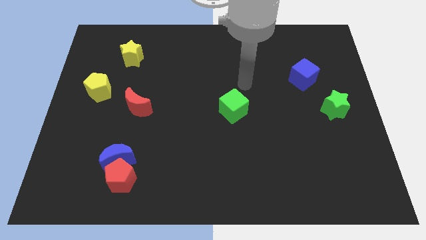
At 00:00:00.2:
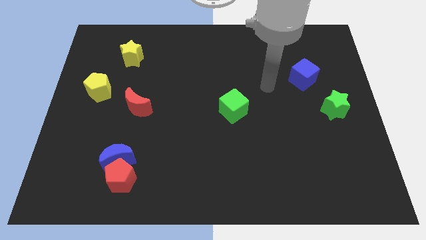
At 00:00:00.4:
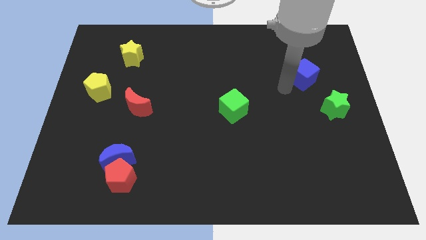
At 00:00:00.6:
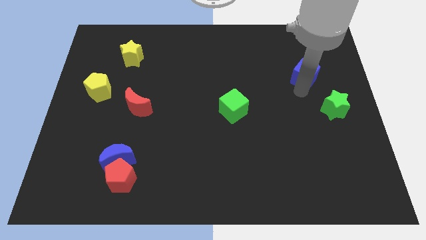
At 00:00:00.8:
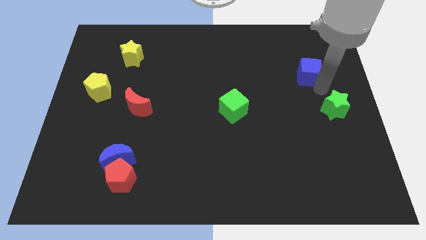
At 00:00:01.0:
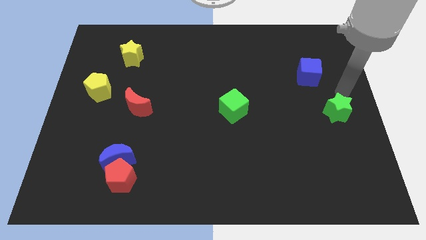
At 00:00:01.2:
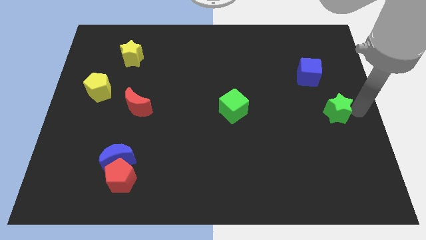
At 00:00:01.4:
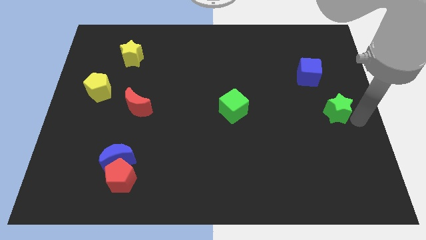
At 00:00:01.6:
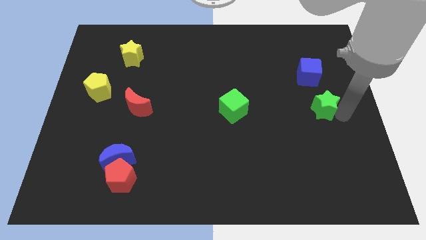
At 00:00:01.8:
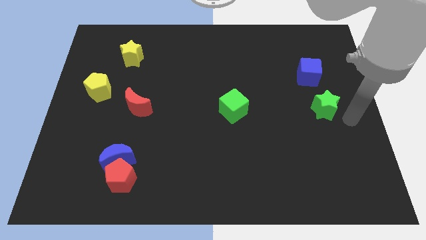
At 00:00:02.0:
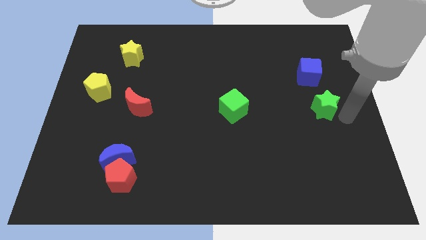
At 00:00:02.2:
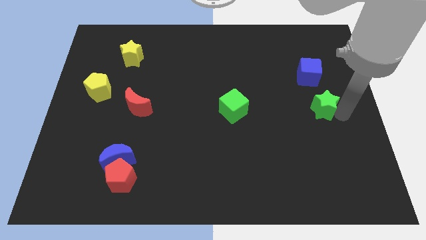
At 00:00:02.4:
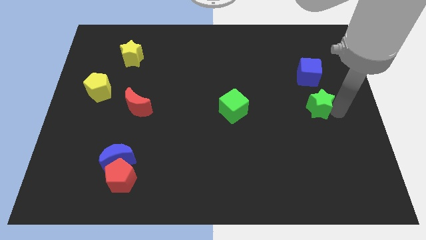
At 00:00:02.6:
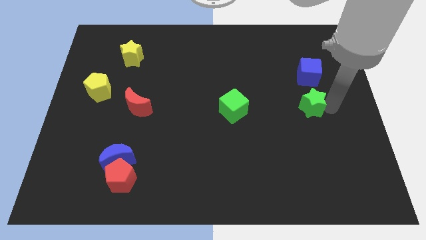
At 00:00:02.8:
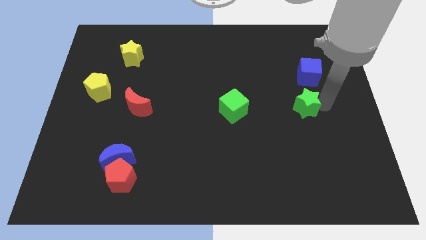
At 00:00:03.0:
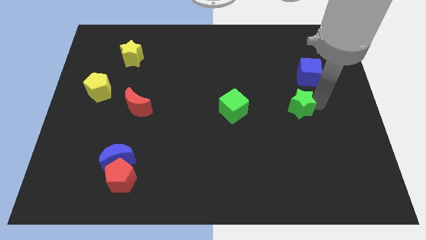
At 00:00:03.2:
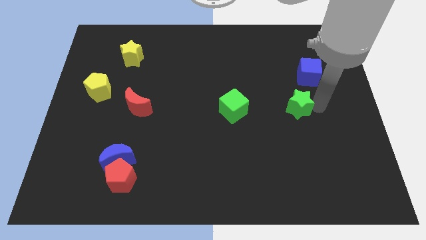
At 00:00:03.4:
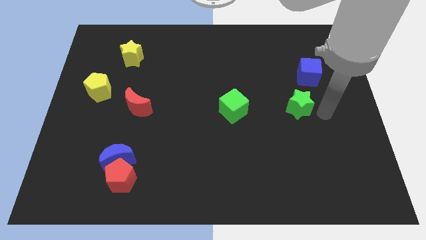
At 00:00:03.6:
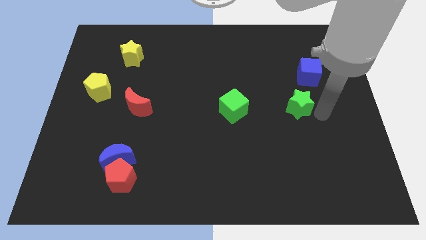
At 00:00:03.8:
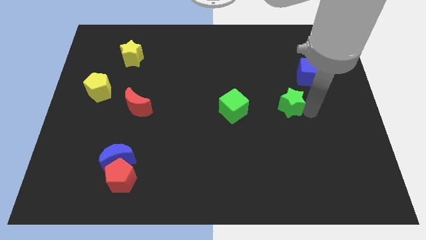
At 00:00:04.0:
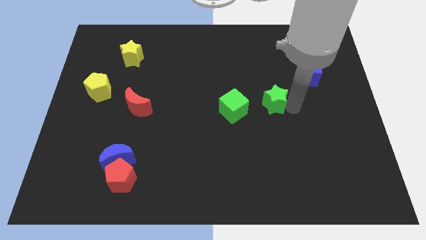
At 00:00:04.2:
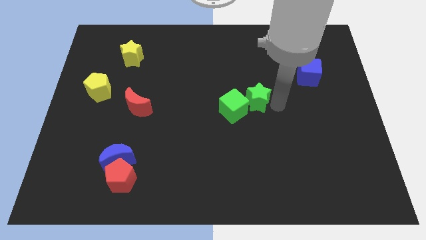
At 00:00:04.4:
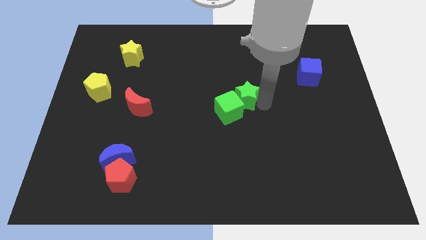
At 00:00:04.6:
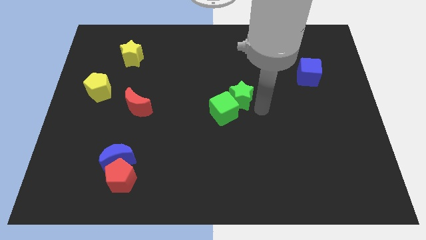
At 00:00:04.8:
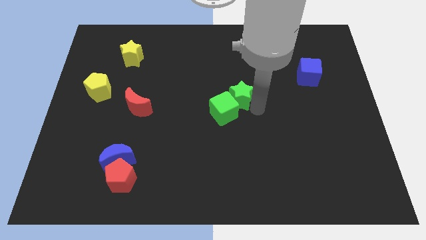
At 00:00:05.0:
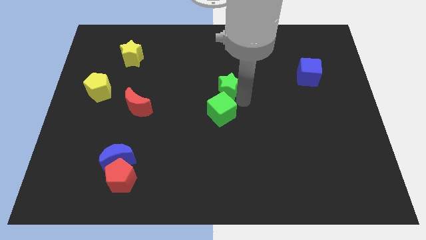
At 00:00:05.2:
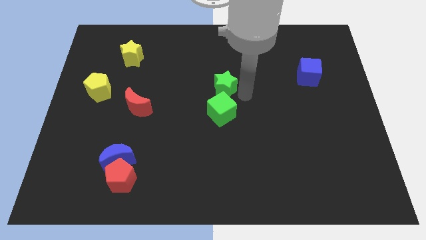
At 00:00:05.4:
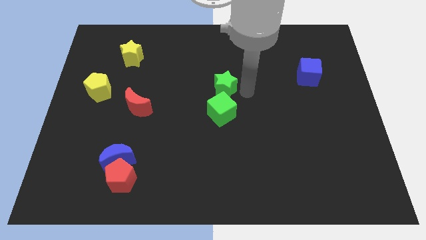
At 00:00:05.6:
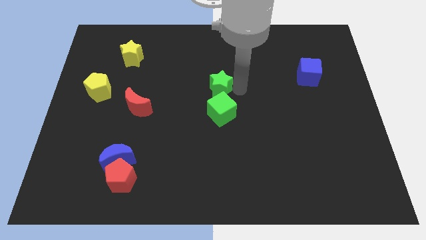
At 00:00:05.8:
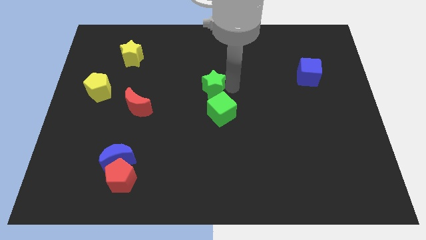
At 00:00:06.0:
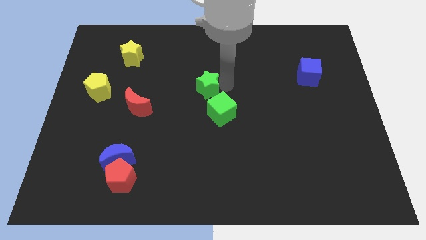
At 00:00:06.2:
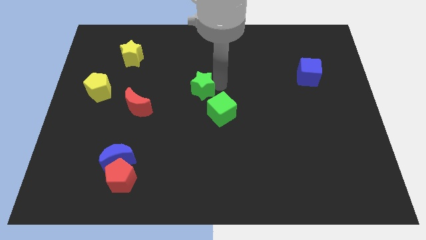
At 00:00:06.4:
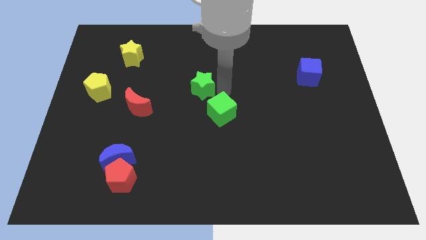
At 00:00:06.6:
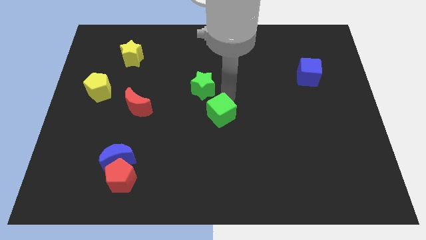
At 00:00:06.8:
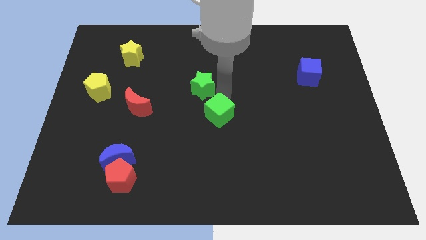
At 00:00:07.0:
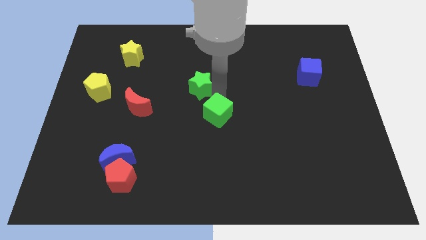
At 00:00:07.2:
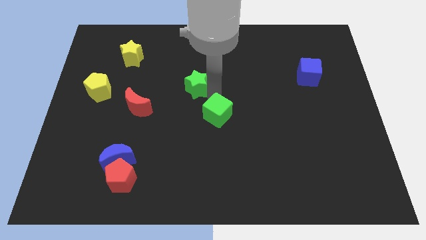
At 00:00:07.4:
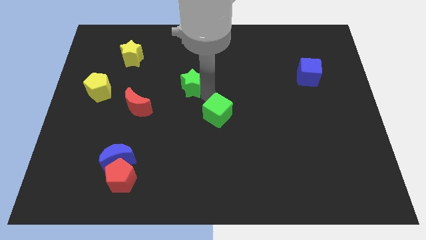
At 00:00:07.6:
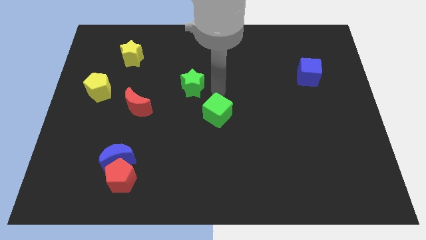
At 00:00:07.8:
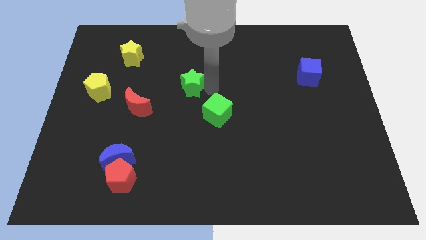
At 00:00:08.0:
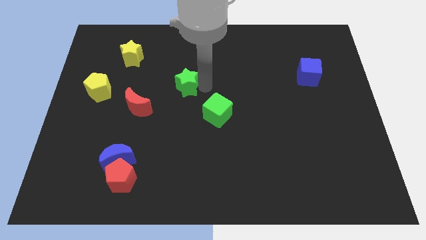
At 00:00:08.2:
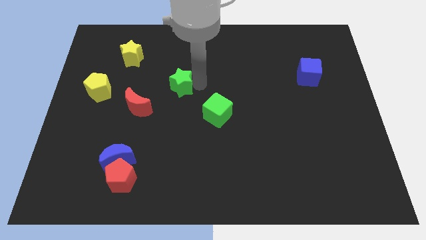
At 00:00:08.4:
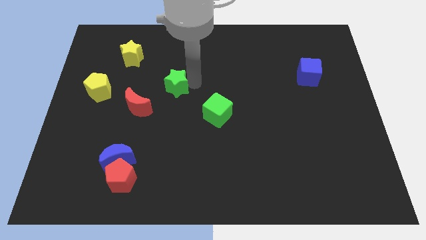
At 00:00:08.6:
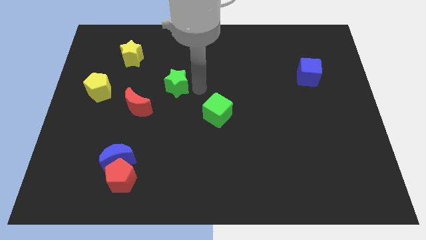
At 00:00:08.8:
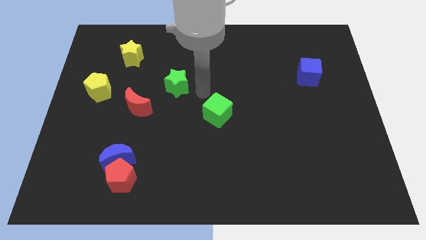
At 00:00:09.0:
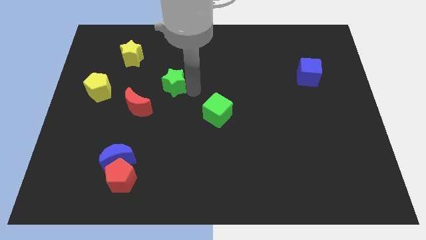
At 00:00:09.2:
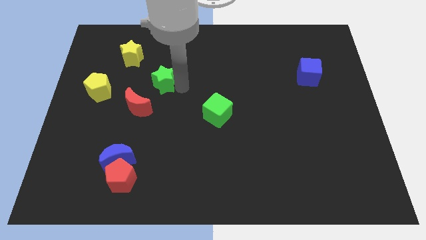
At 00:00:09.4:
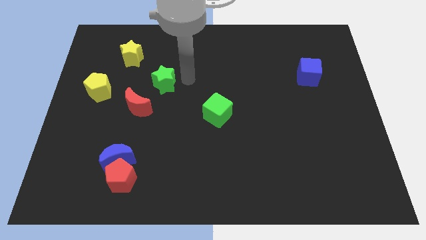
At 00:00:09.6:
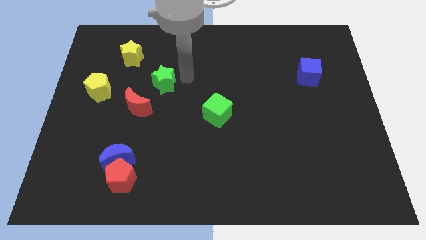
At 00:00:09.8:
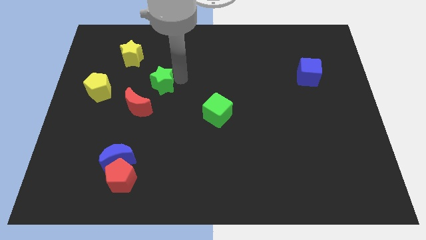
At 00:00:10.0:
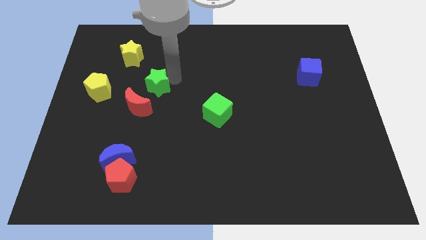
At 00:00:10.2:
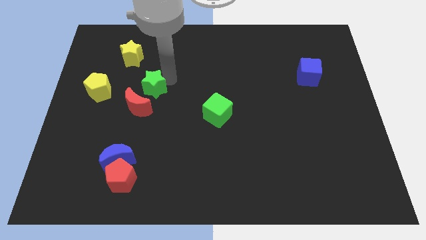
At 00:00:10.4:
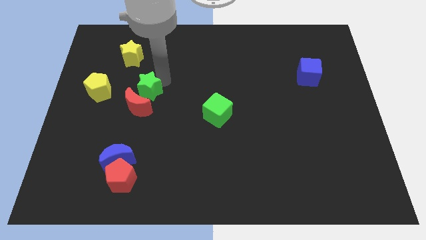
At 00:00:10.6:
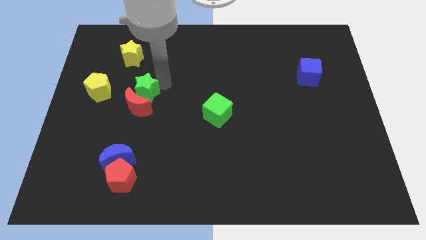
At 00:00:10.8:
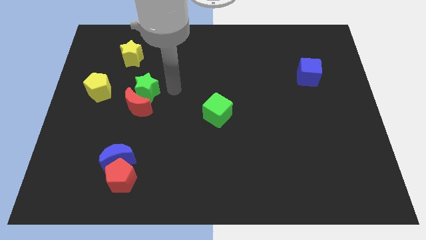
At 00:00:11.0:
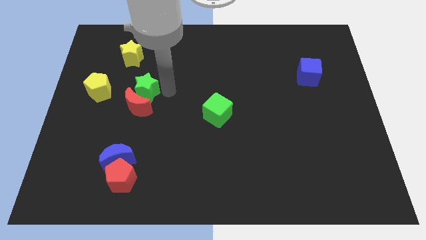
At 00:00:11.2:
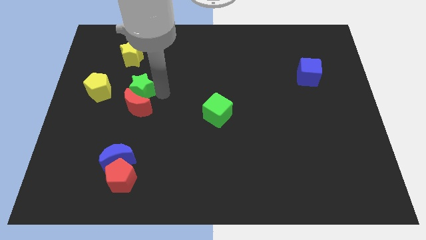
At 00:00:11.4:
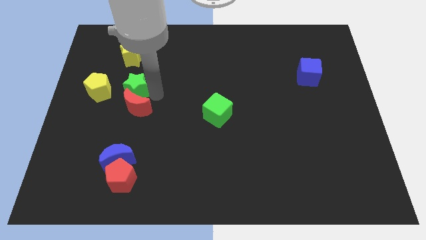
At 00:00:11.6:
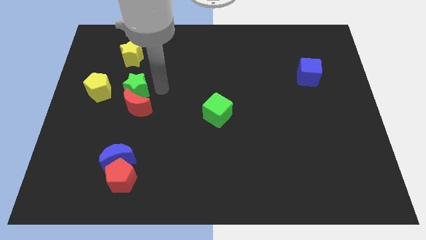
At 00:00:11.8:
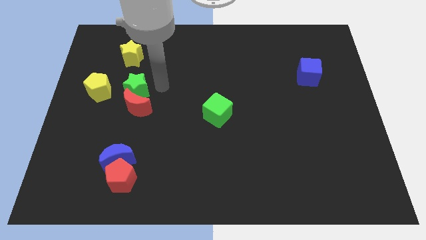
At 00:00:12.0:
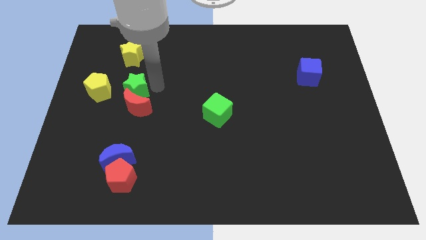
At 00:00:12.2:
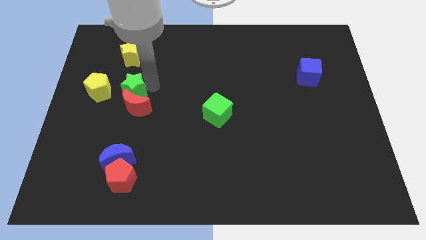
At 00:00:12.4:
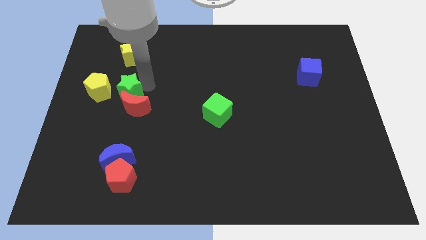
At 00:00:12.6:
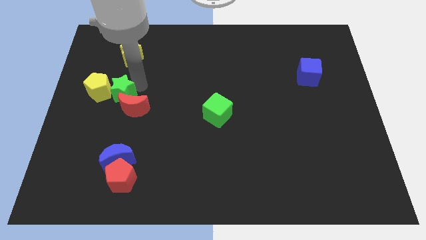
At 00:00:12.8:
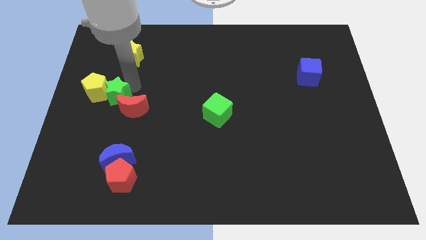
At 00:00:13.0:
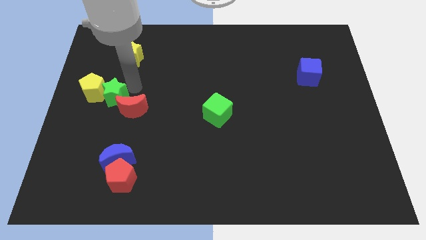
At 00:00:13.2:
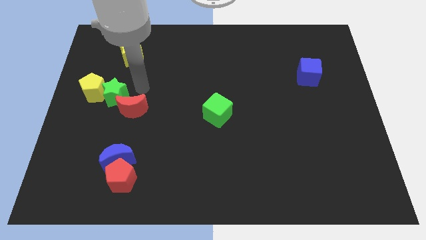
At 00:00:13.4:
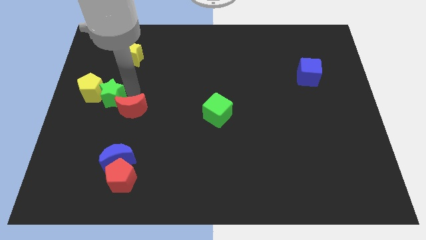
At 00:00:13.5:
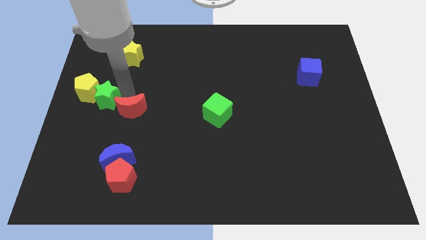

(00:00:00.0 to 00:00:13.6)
push the green star to the left side
